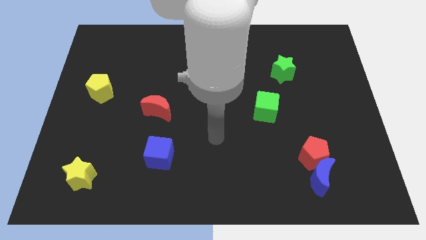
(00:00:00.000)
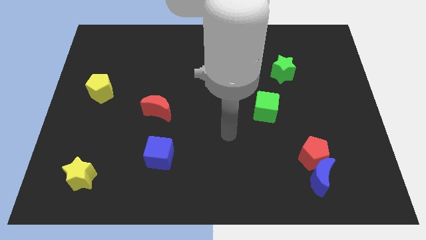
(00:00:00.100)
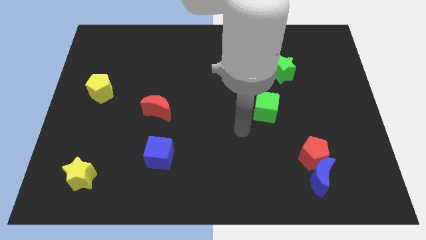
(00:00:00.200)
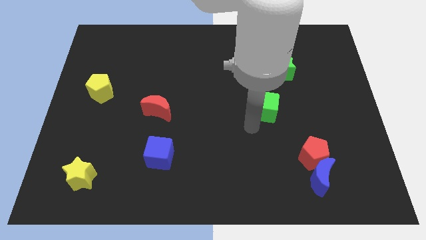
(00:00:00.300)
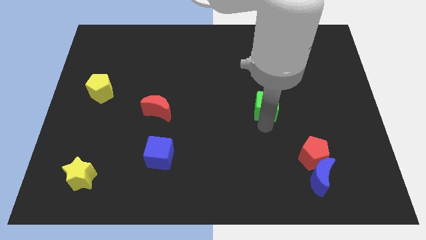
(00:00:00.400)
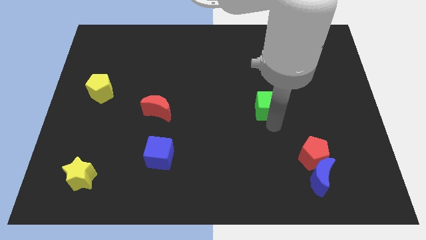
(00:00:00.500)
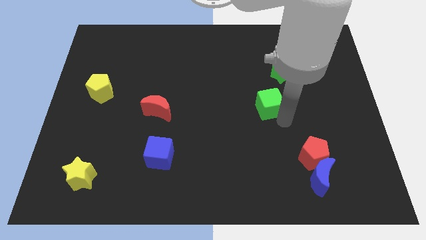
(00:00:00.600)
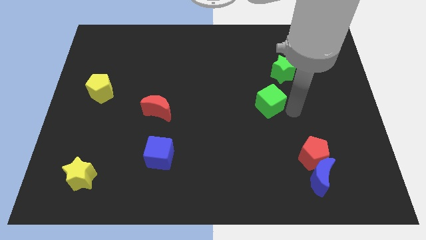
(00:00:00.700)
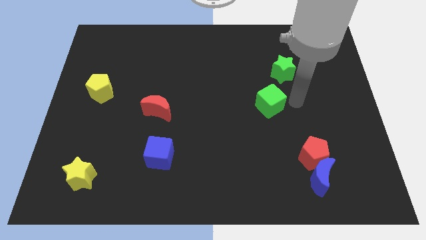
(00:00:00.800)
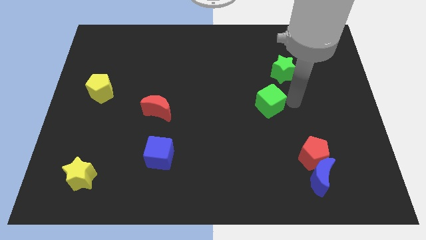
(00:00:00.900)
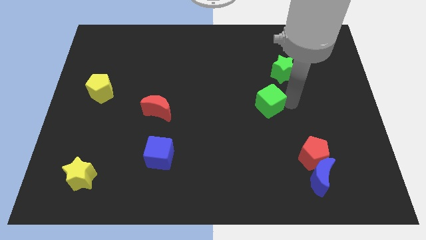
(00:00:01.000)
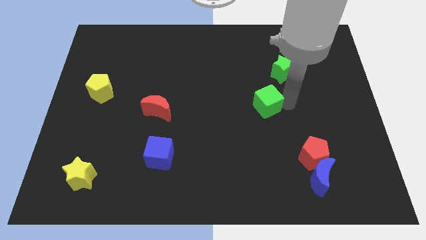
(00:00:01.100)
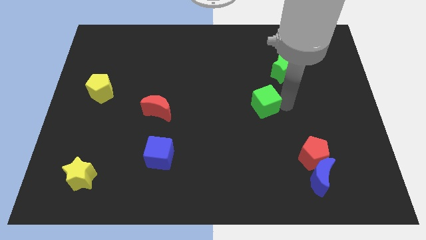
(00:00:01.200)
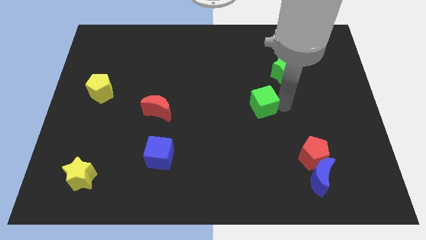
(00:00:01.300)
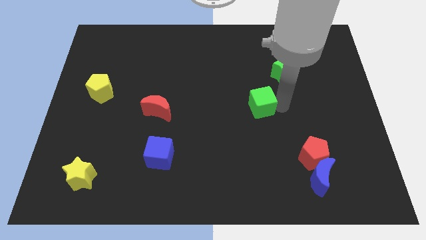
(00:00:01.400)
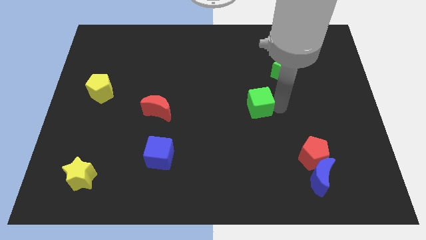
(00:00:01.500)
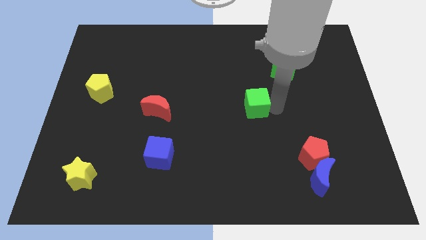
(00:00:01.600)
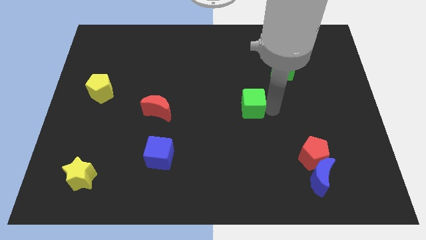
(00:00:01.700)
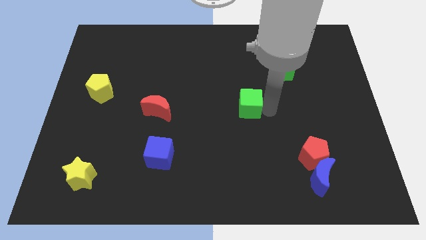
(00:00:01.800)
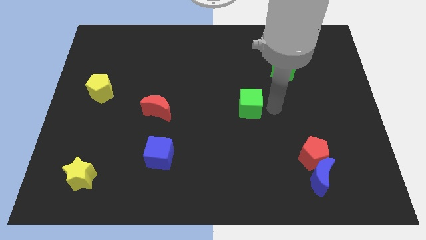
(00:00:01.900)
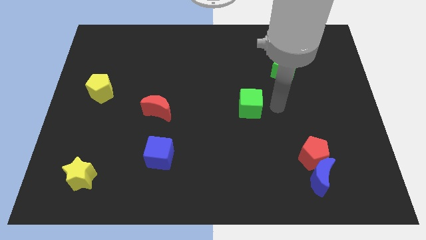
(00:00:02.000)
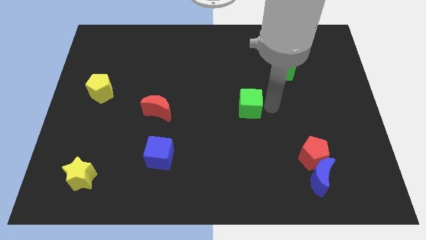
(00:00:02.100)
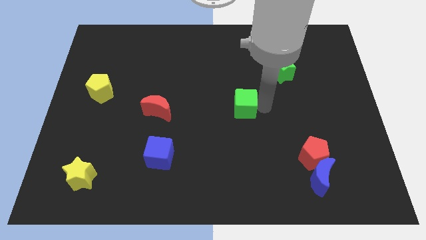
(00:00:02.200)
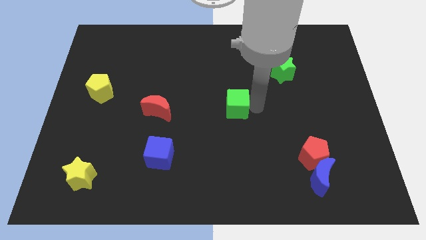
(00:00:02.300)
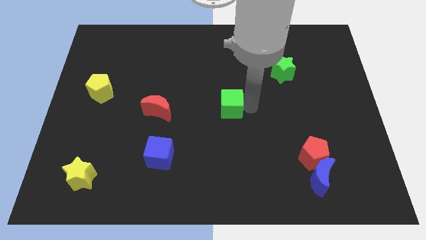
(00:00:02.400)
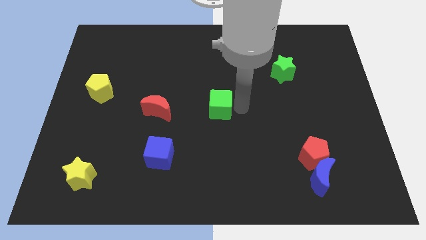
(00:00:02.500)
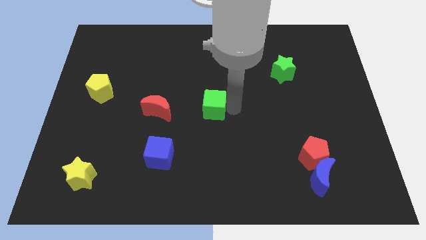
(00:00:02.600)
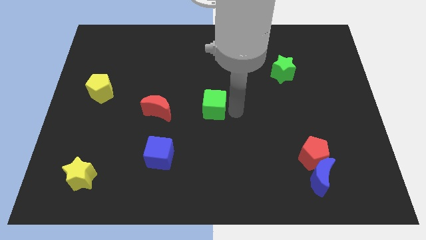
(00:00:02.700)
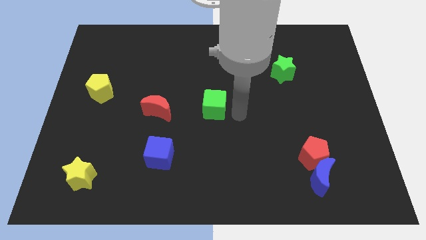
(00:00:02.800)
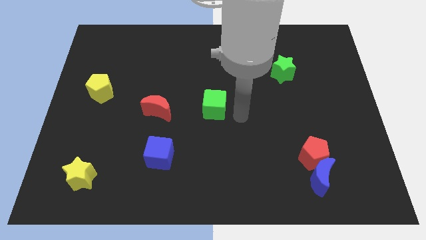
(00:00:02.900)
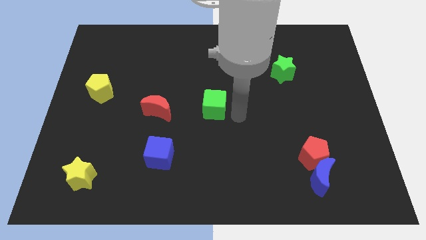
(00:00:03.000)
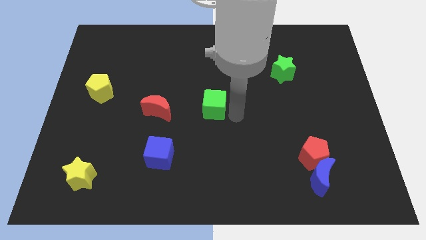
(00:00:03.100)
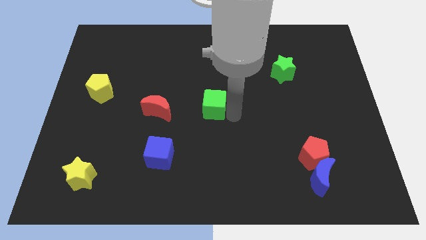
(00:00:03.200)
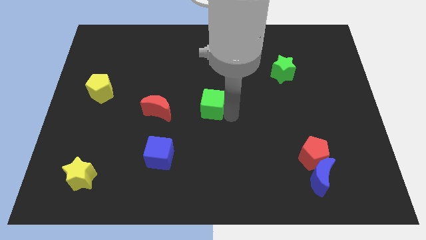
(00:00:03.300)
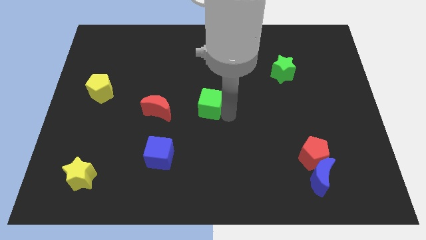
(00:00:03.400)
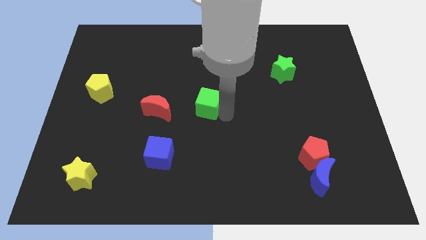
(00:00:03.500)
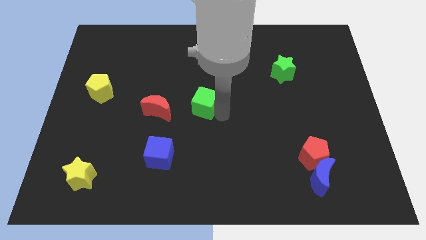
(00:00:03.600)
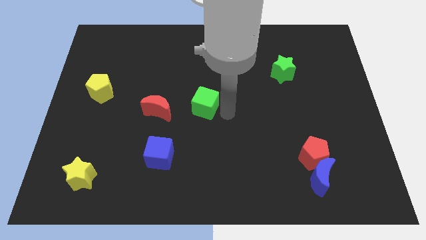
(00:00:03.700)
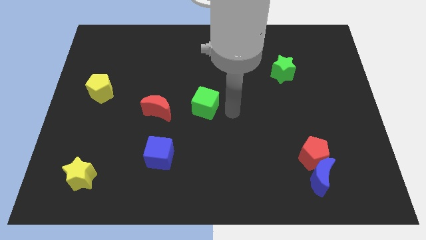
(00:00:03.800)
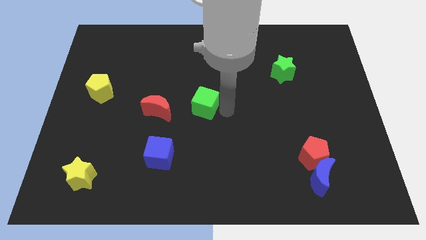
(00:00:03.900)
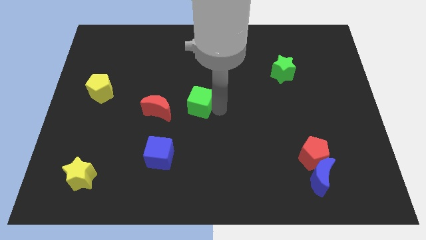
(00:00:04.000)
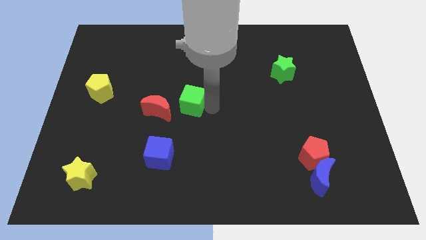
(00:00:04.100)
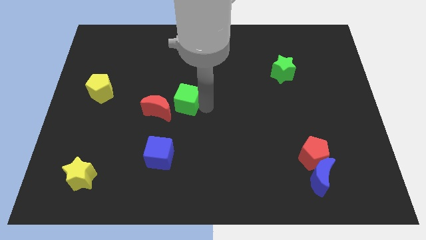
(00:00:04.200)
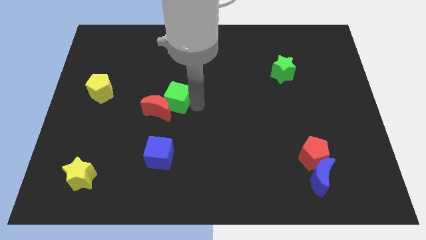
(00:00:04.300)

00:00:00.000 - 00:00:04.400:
push the green cube left

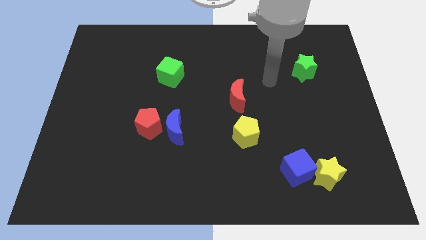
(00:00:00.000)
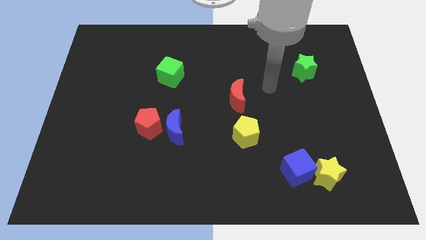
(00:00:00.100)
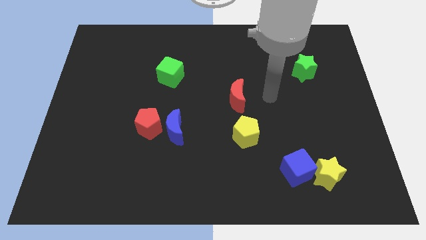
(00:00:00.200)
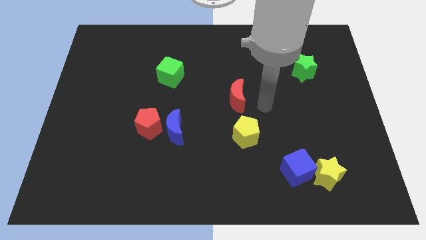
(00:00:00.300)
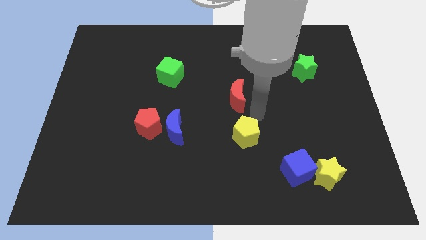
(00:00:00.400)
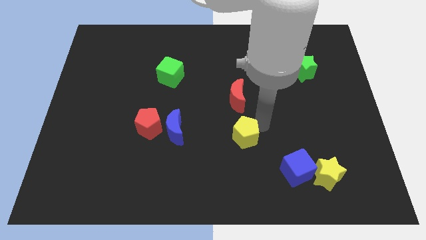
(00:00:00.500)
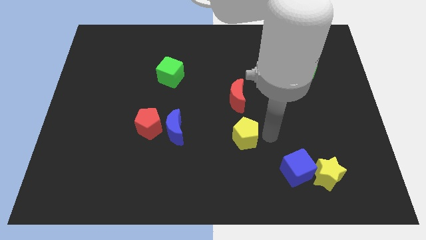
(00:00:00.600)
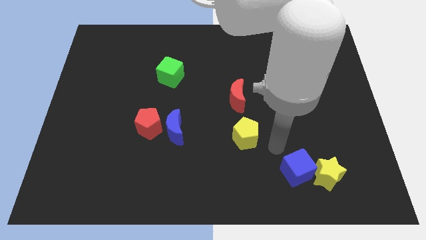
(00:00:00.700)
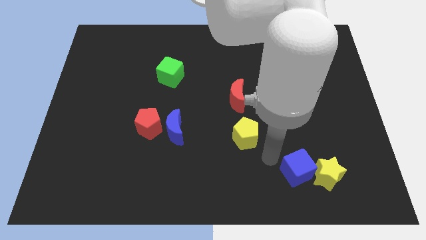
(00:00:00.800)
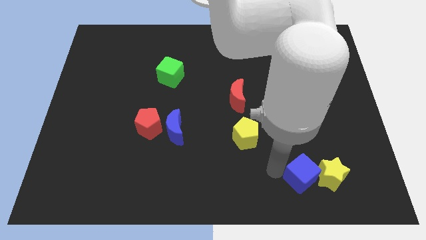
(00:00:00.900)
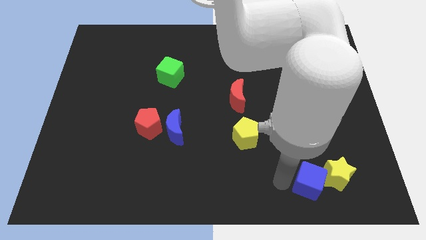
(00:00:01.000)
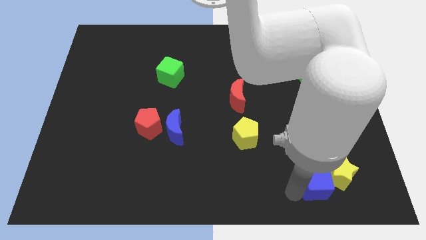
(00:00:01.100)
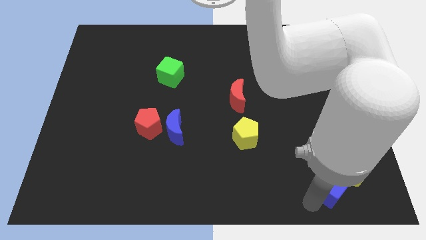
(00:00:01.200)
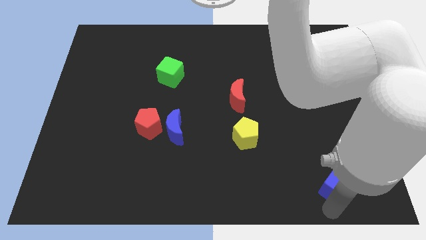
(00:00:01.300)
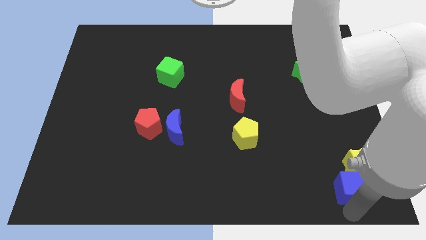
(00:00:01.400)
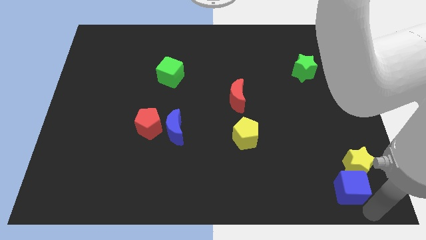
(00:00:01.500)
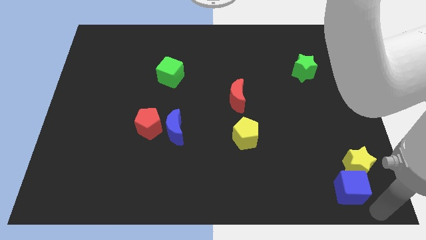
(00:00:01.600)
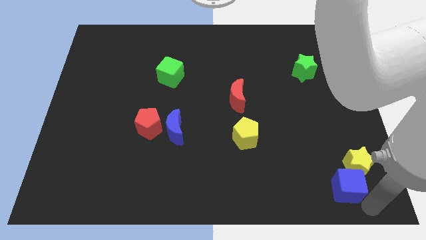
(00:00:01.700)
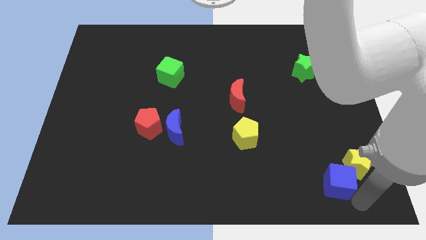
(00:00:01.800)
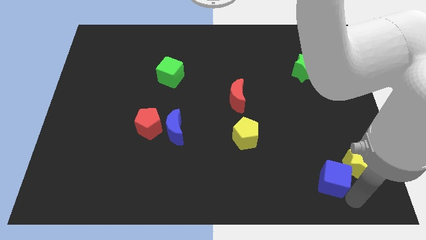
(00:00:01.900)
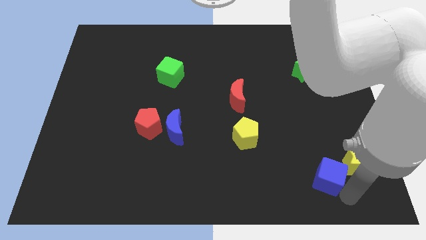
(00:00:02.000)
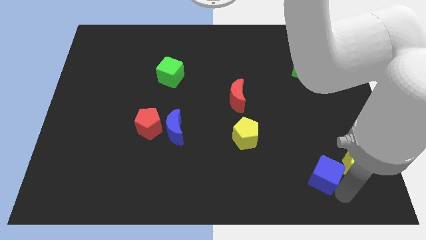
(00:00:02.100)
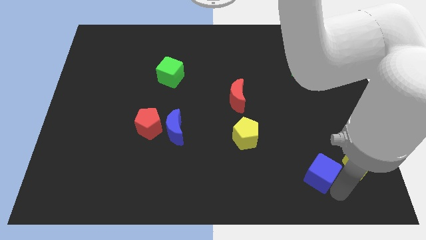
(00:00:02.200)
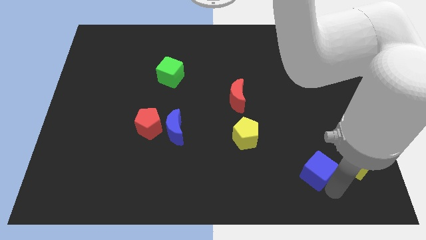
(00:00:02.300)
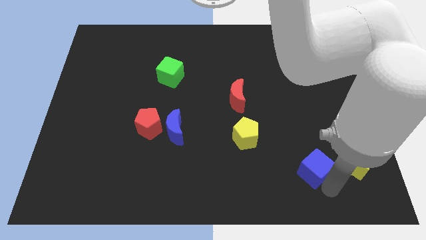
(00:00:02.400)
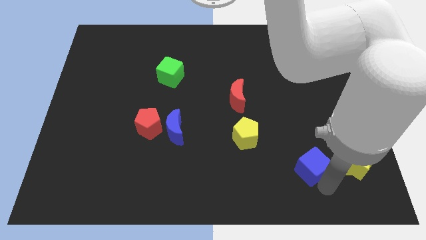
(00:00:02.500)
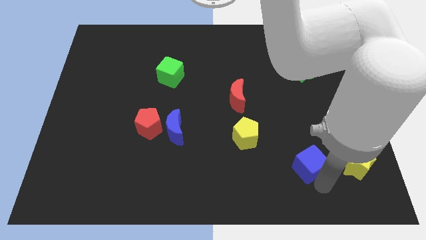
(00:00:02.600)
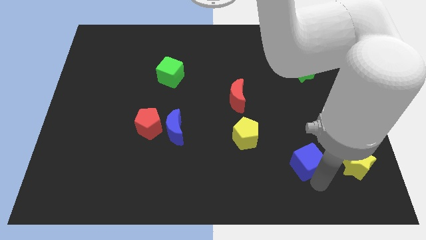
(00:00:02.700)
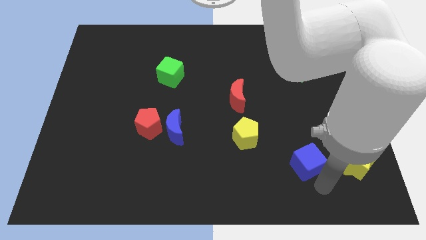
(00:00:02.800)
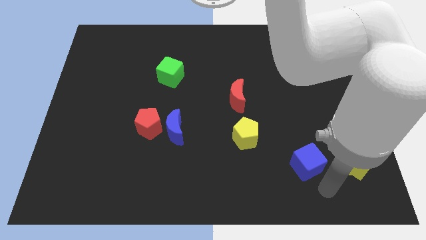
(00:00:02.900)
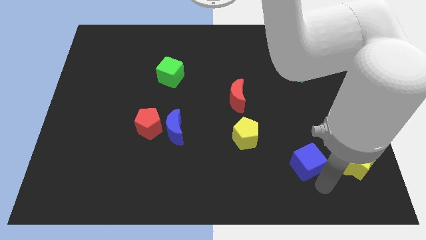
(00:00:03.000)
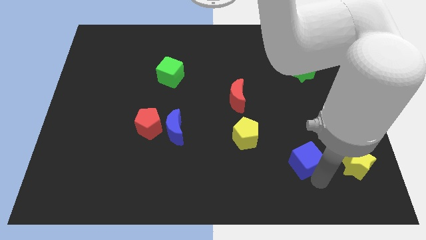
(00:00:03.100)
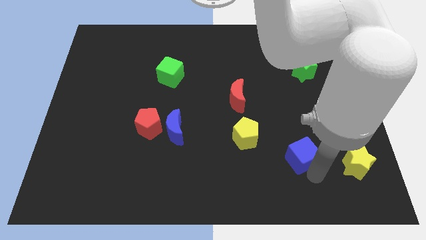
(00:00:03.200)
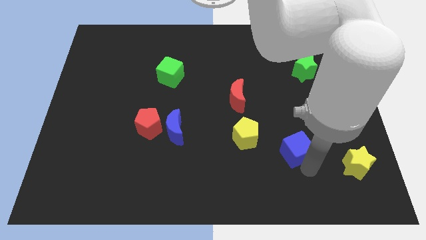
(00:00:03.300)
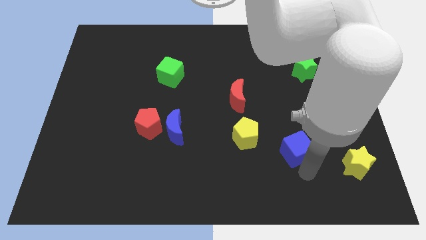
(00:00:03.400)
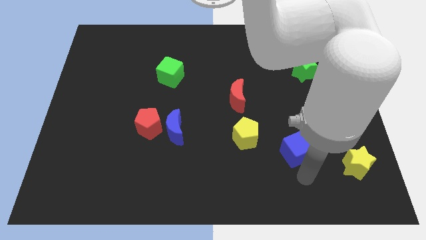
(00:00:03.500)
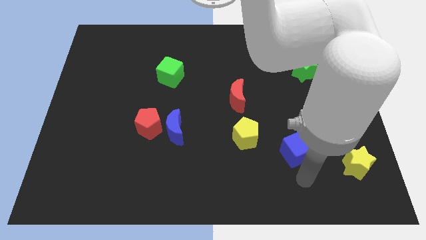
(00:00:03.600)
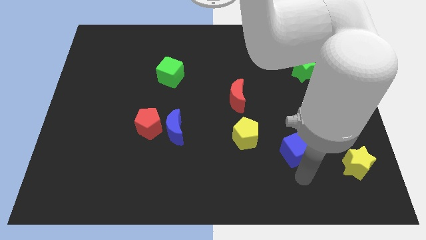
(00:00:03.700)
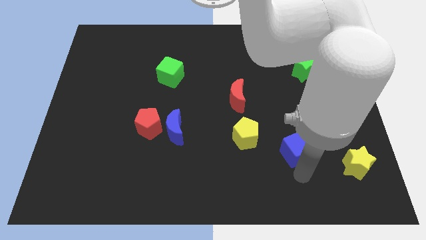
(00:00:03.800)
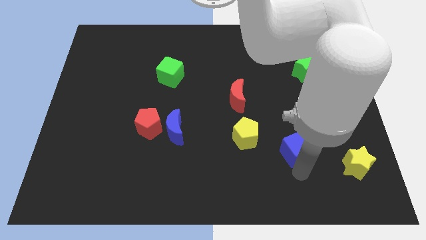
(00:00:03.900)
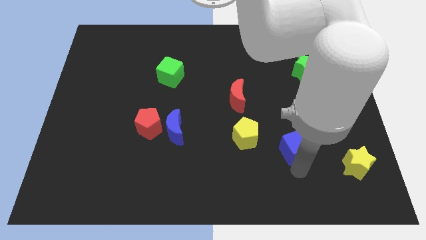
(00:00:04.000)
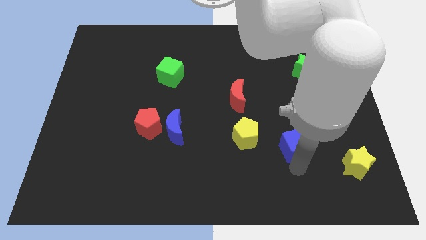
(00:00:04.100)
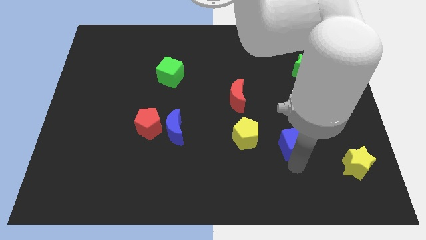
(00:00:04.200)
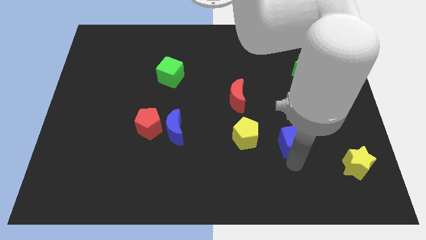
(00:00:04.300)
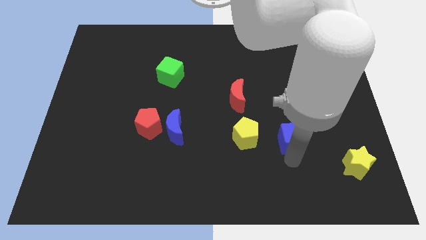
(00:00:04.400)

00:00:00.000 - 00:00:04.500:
move the blue cube a little up
